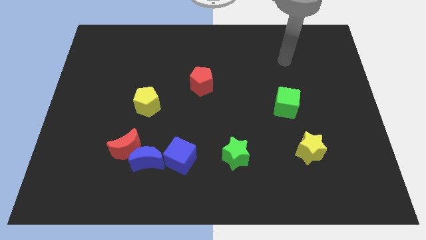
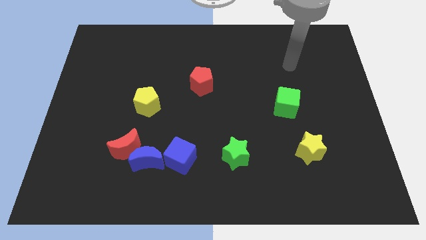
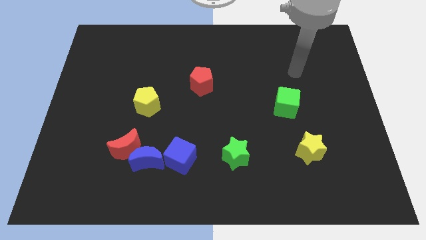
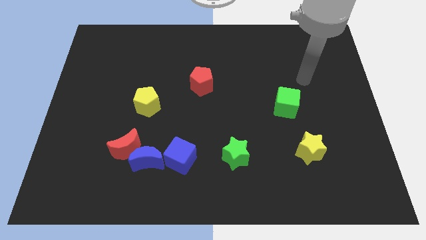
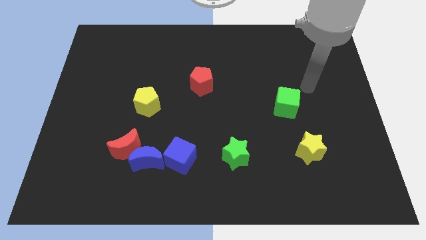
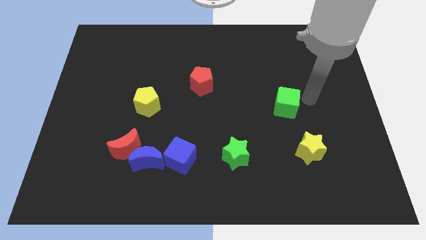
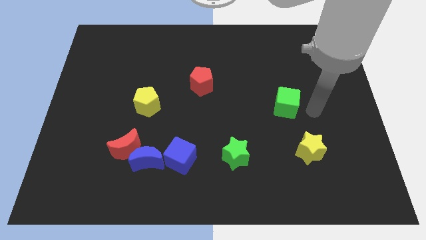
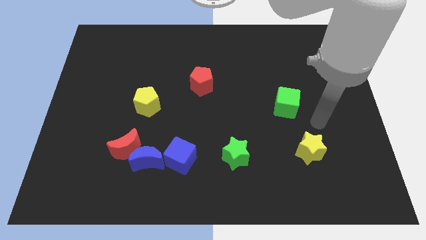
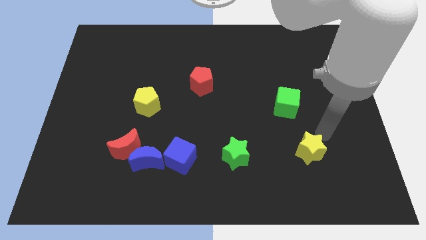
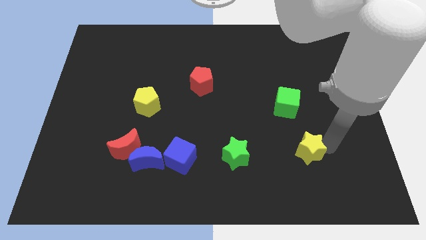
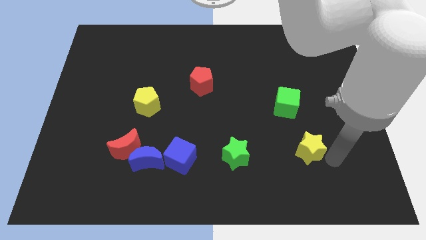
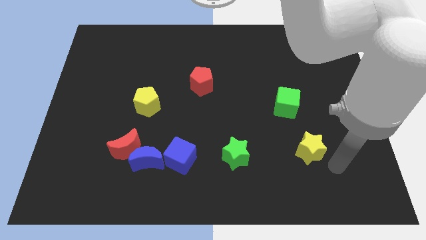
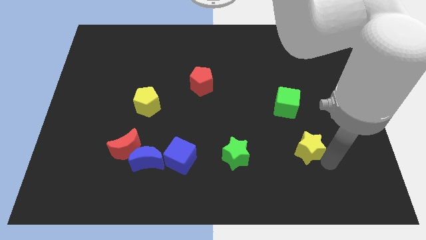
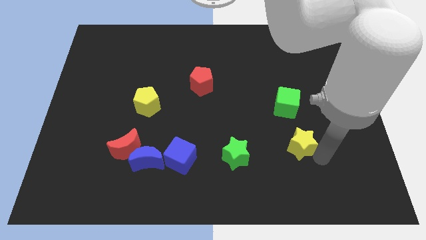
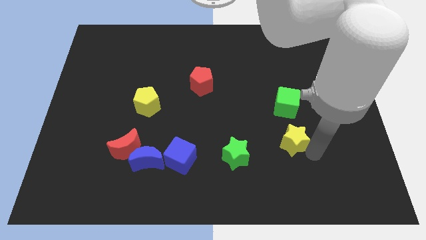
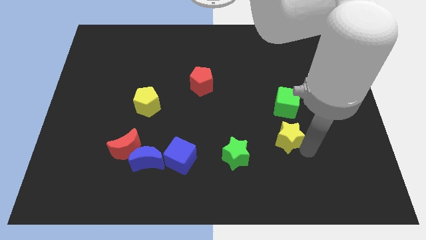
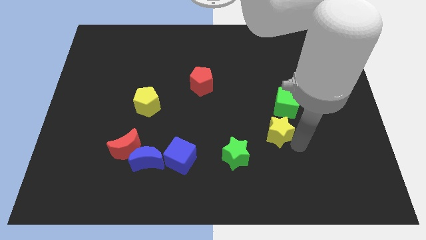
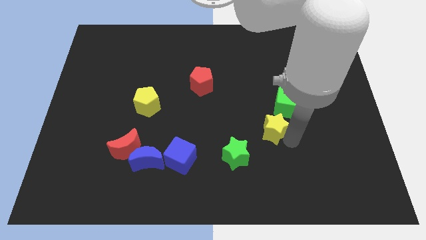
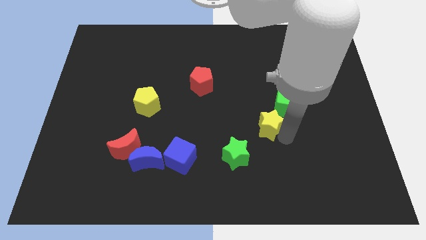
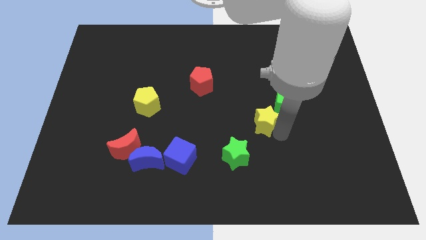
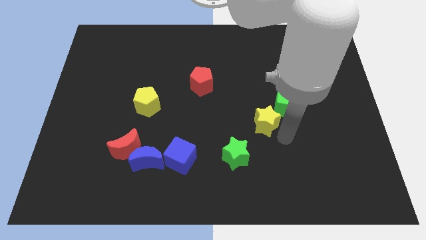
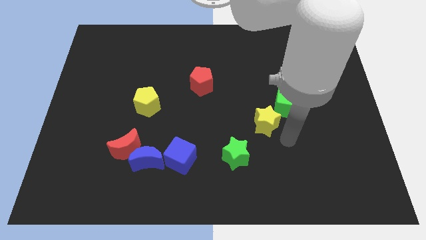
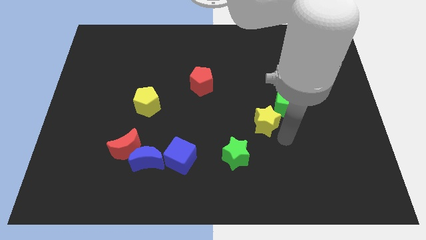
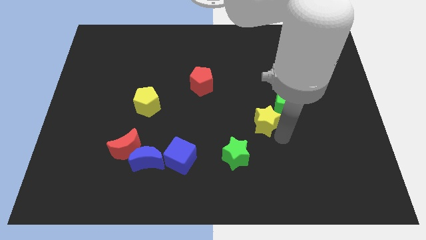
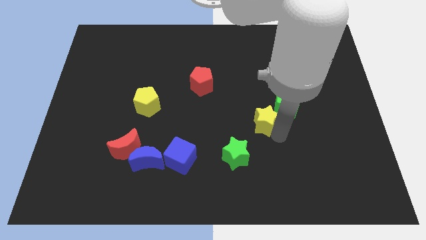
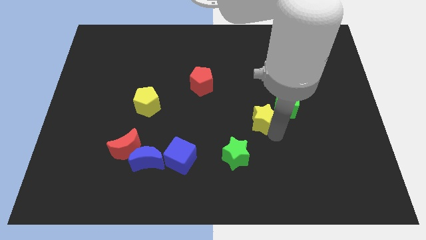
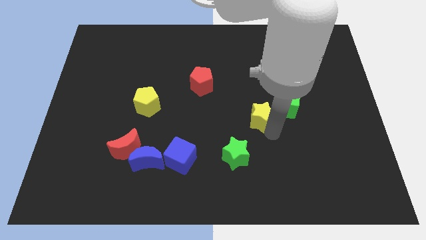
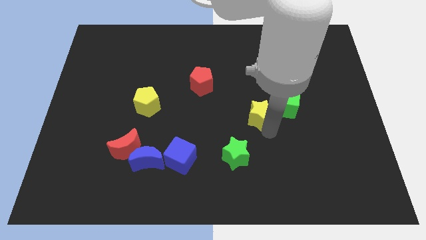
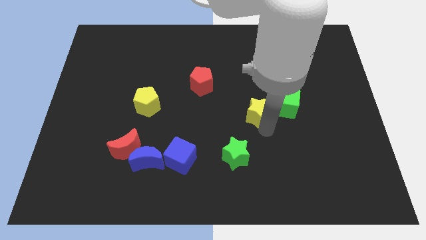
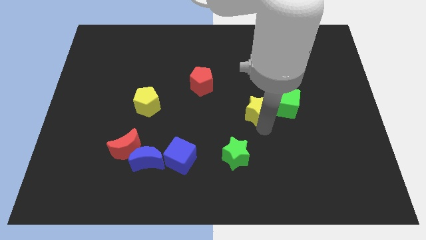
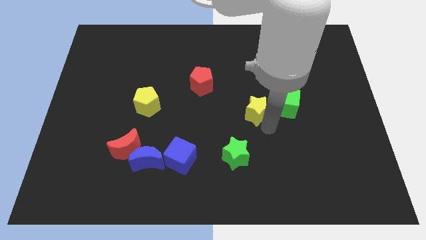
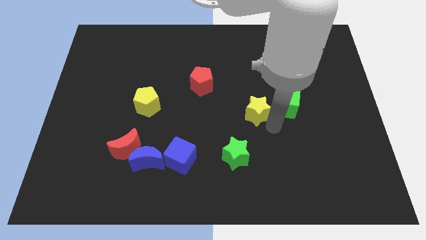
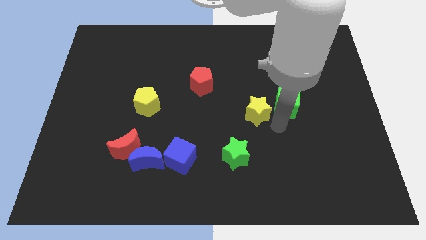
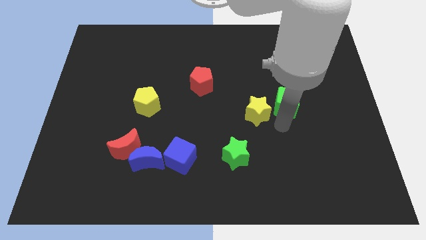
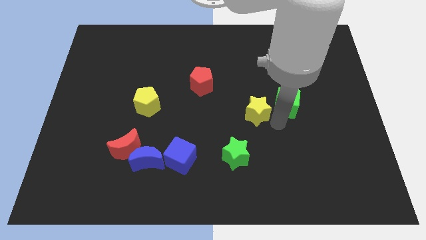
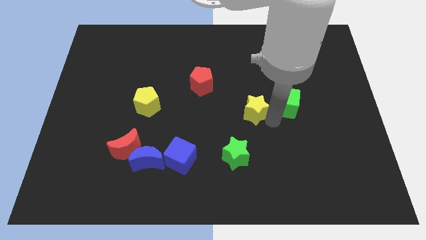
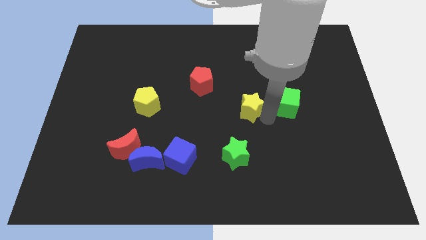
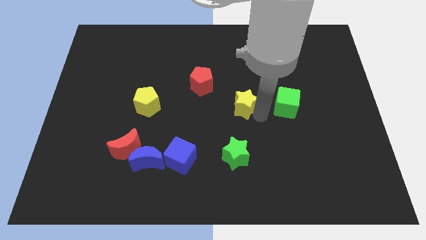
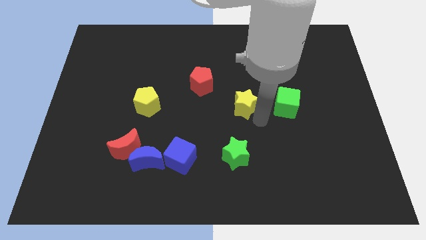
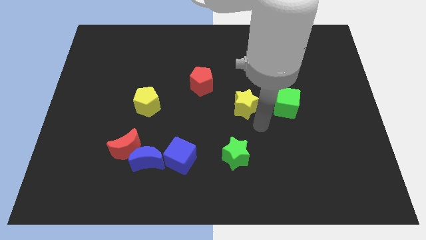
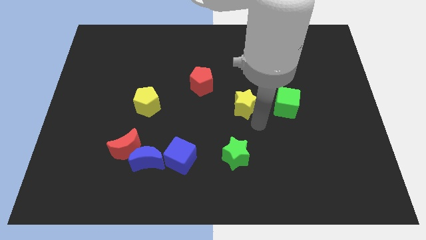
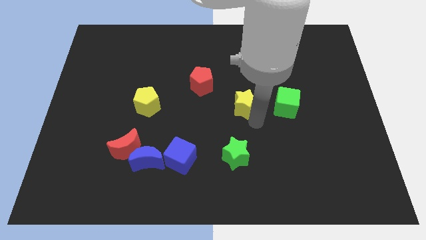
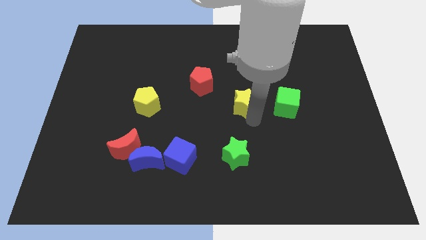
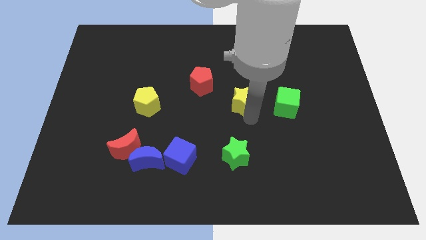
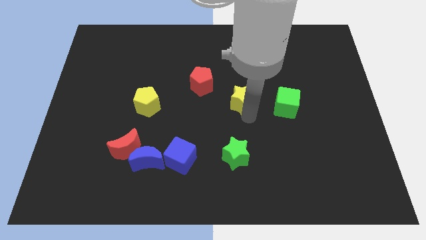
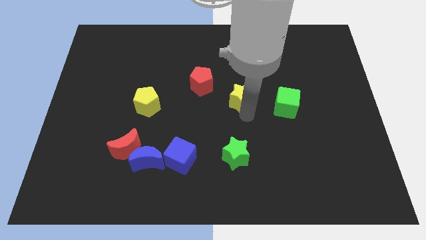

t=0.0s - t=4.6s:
push the yellow star up and to the left diagonally

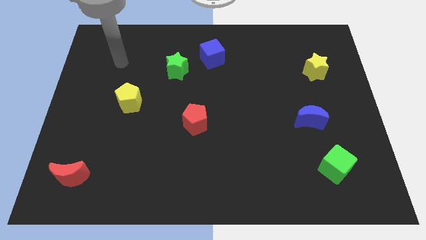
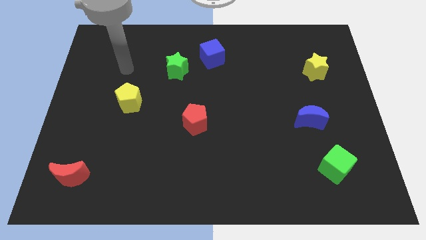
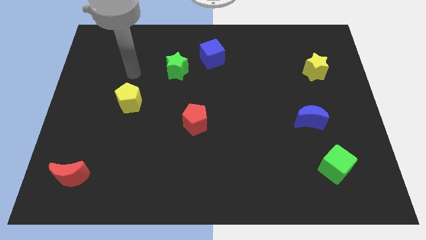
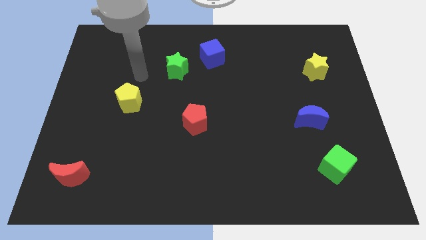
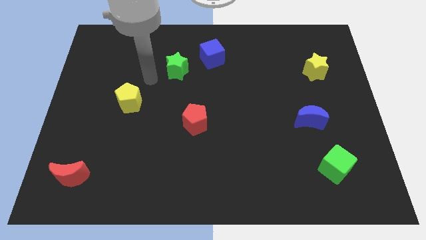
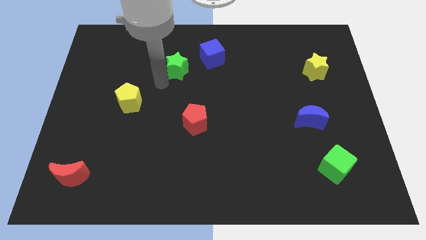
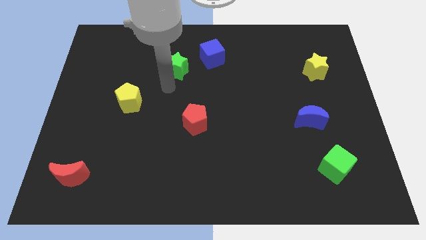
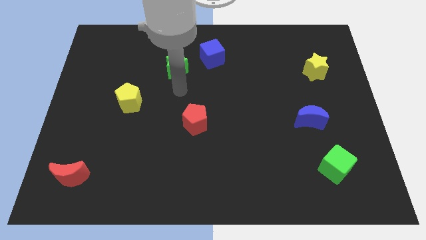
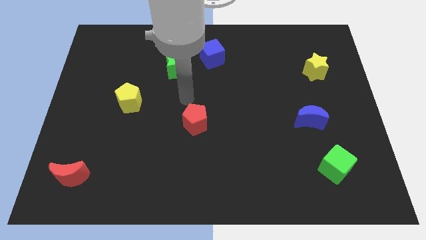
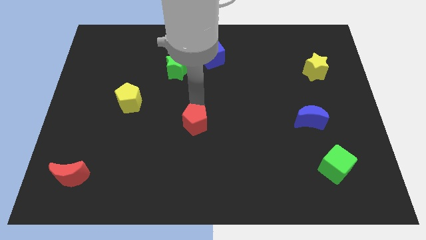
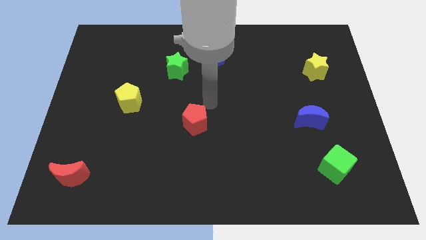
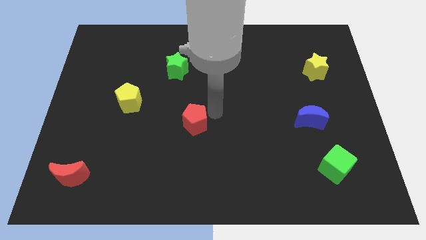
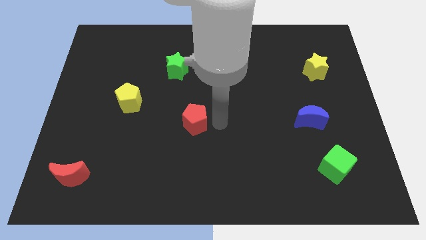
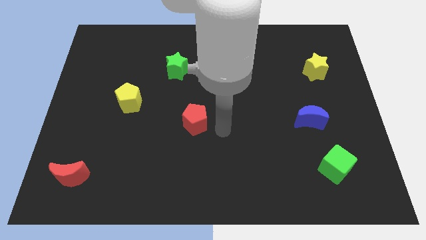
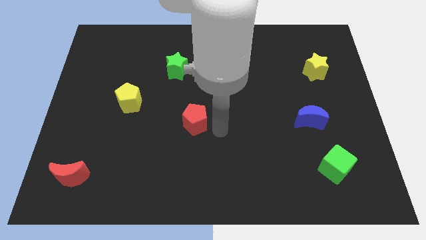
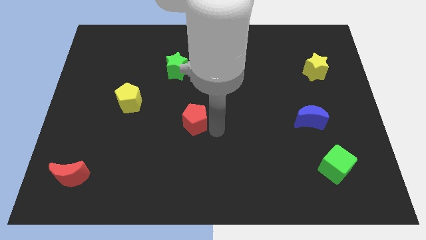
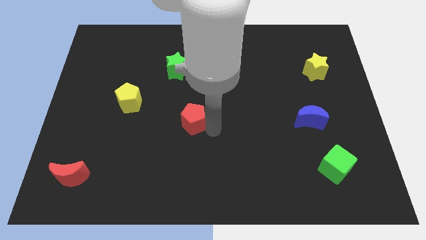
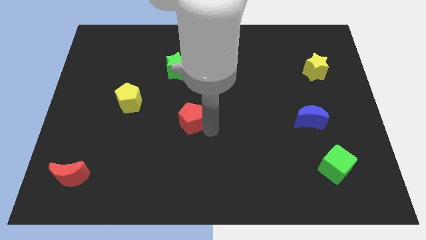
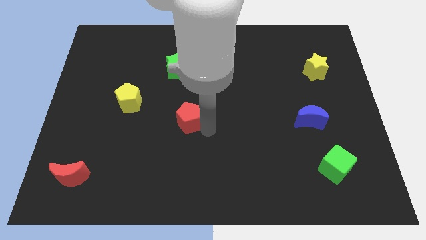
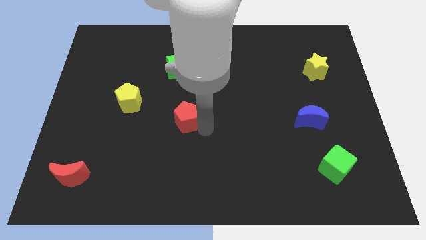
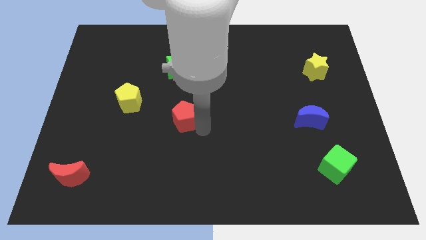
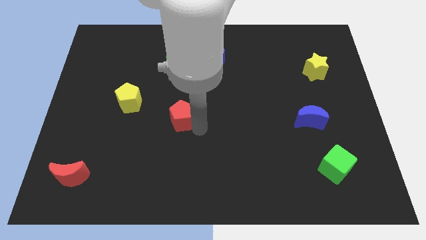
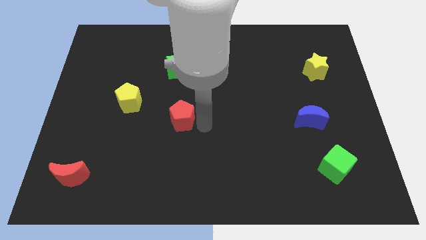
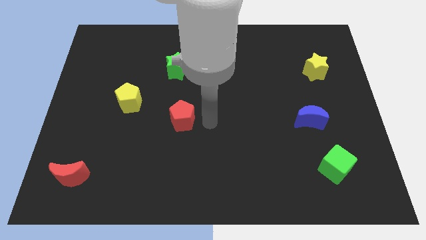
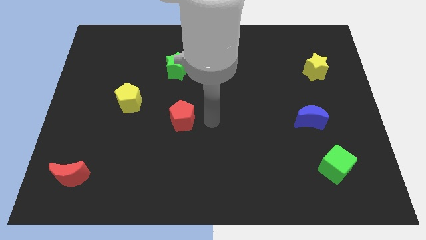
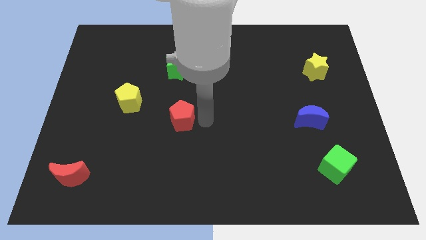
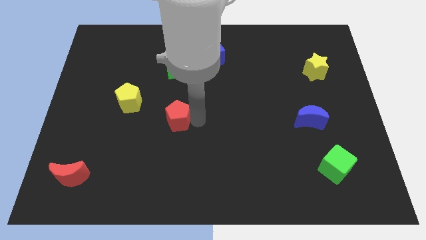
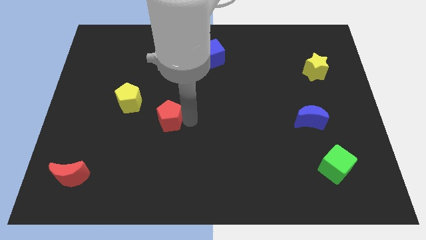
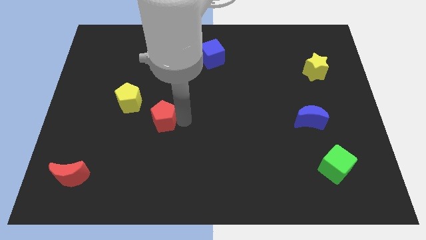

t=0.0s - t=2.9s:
slightly push the red pentagon to the left
